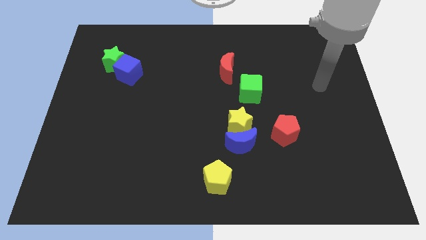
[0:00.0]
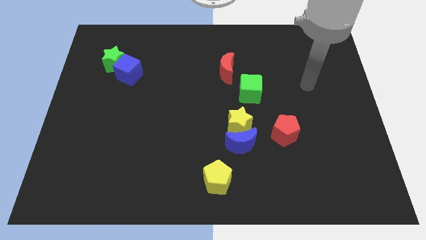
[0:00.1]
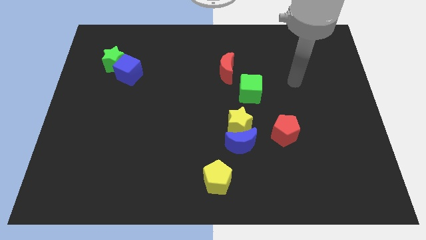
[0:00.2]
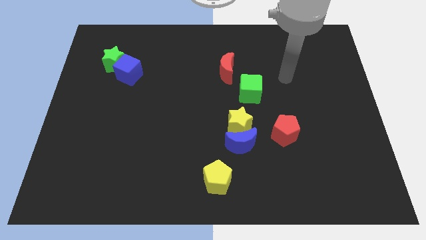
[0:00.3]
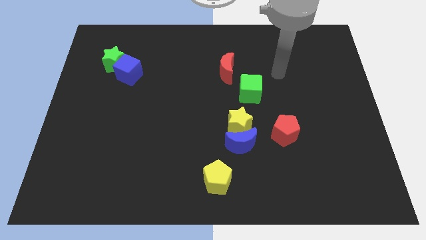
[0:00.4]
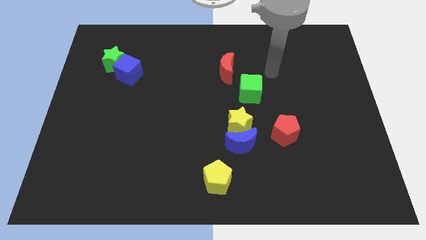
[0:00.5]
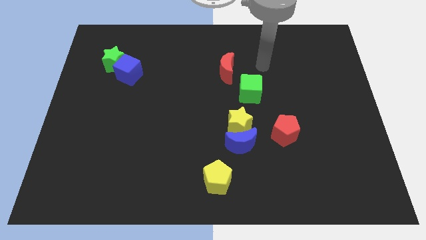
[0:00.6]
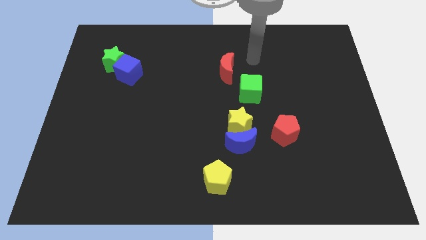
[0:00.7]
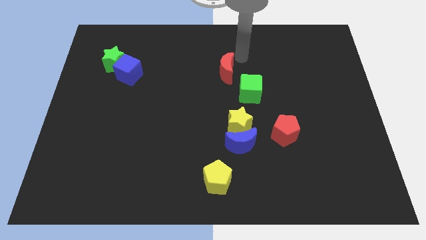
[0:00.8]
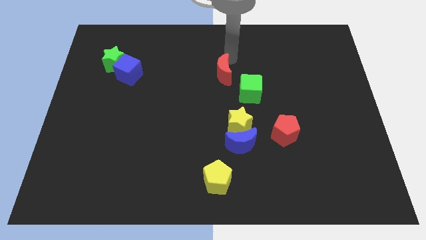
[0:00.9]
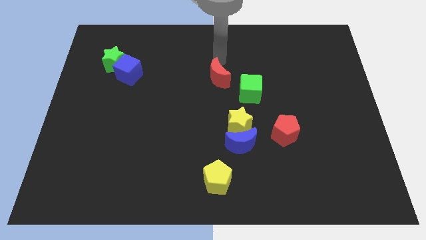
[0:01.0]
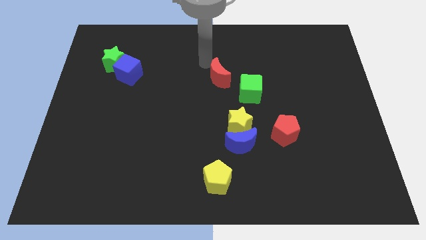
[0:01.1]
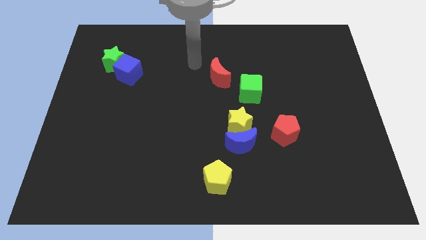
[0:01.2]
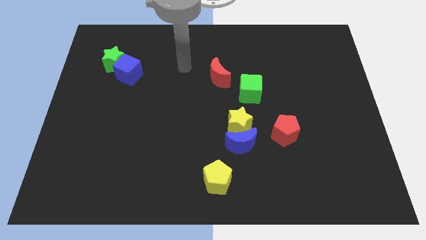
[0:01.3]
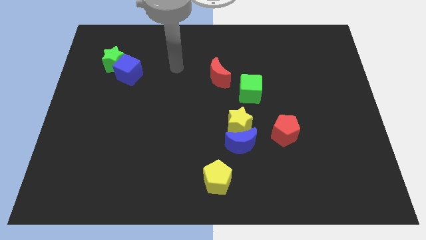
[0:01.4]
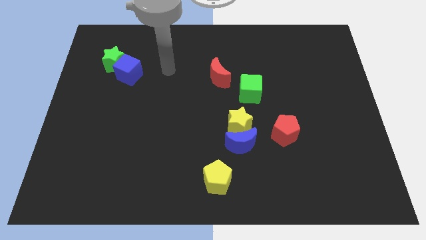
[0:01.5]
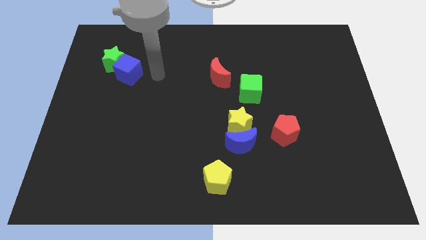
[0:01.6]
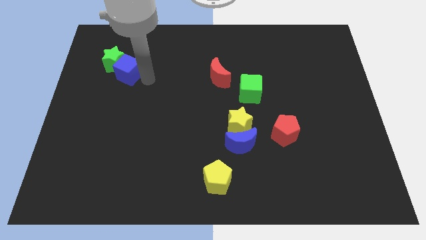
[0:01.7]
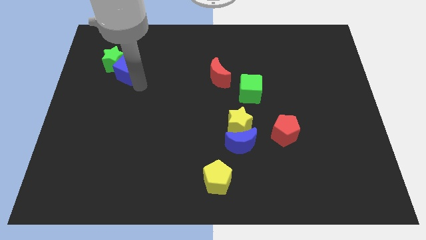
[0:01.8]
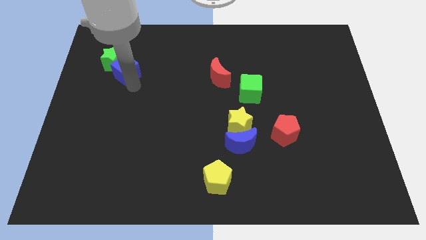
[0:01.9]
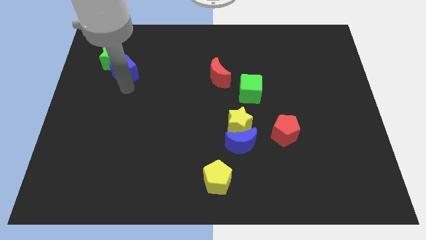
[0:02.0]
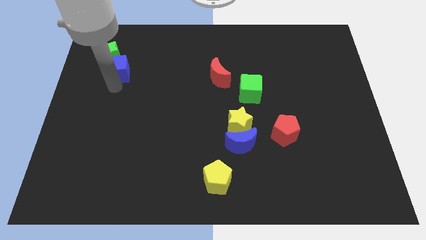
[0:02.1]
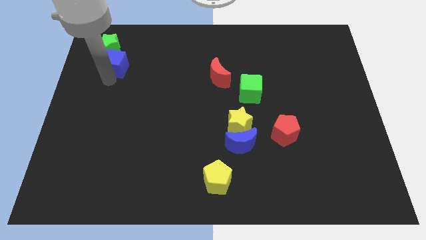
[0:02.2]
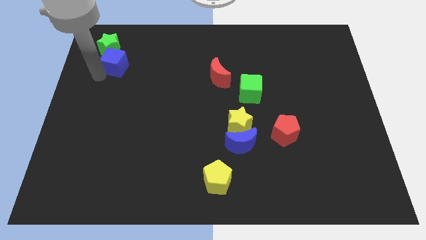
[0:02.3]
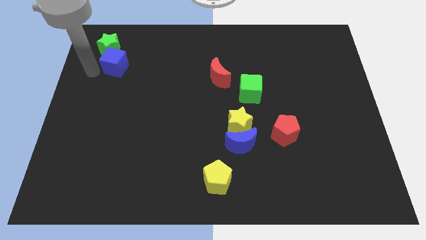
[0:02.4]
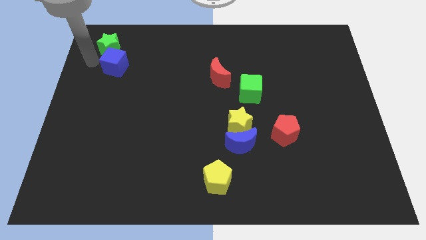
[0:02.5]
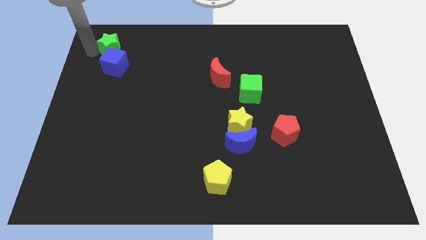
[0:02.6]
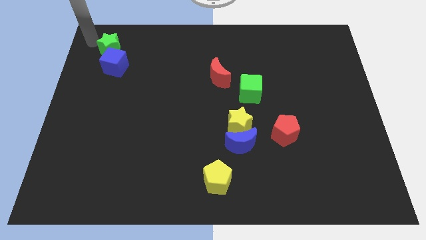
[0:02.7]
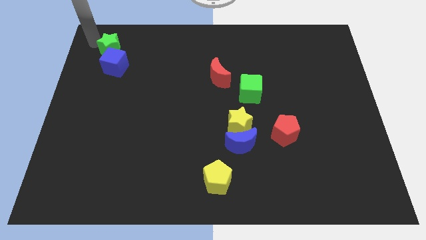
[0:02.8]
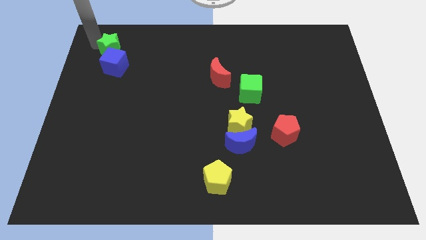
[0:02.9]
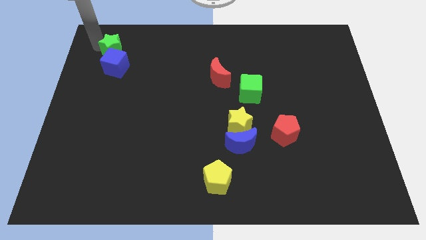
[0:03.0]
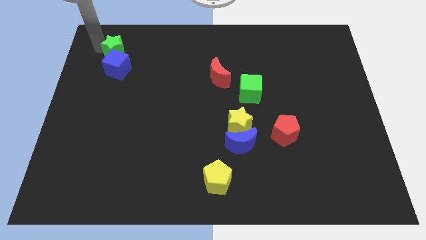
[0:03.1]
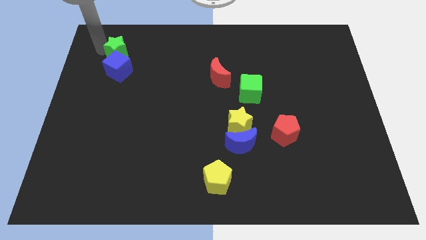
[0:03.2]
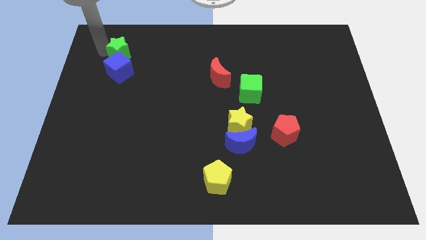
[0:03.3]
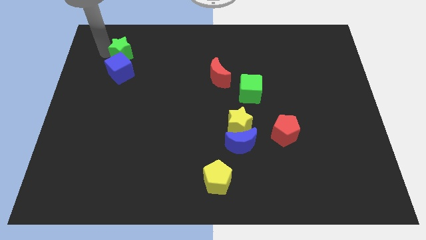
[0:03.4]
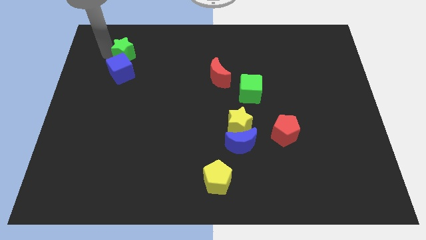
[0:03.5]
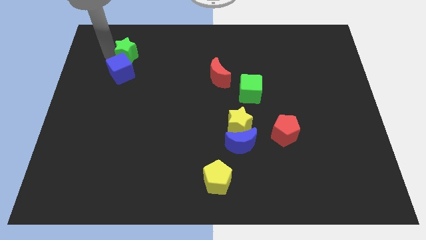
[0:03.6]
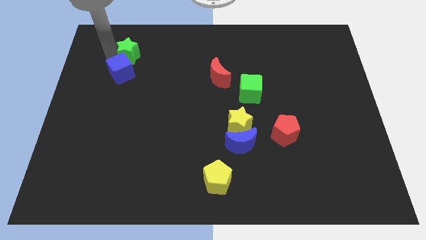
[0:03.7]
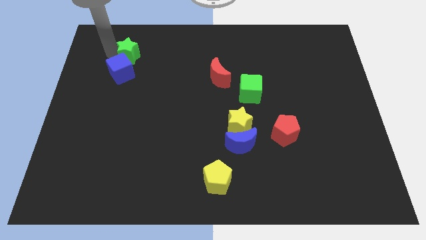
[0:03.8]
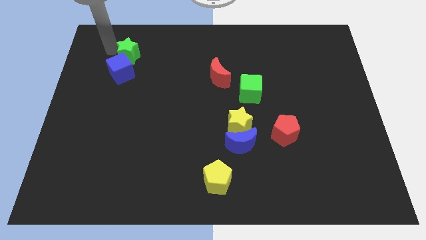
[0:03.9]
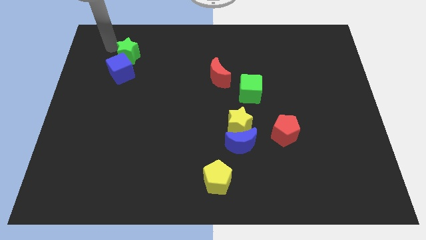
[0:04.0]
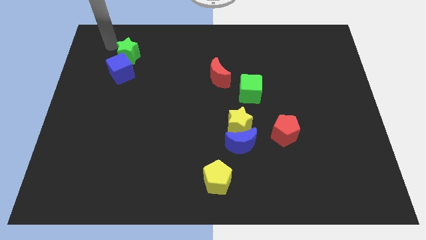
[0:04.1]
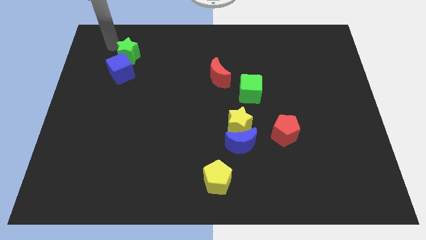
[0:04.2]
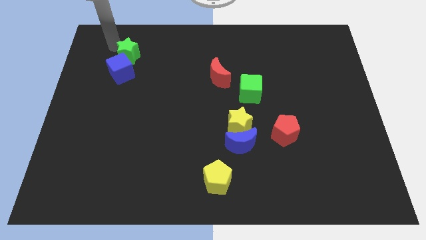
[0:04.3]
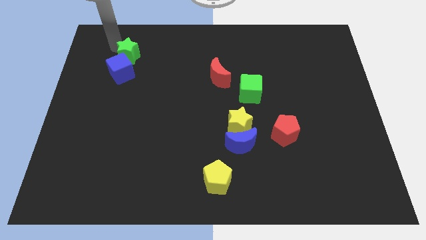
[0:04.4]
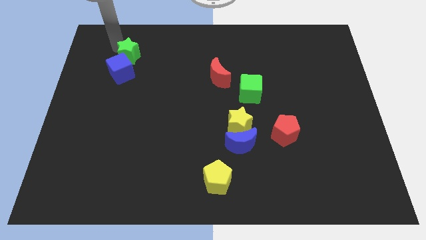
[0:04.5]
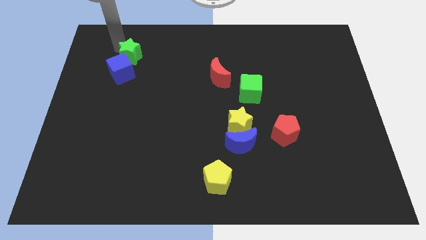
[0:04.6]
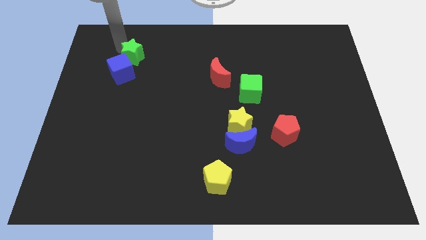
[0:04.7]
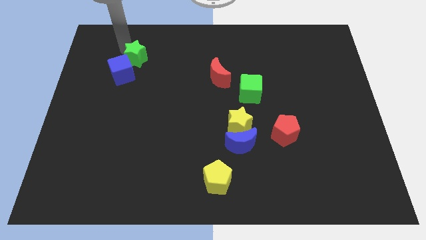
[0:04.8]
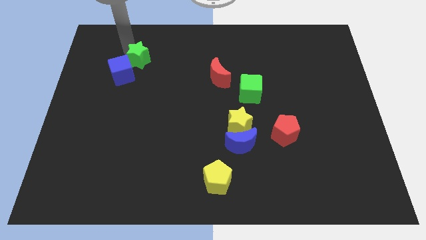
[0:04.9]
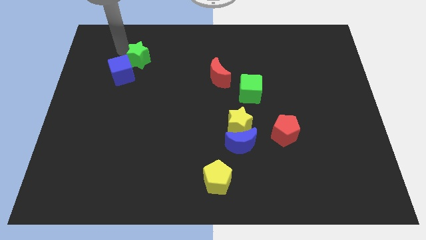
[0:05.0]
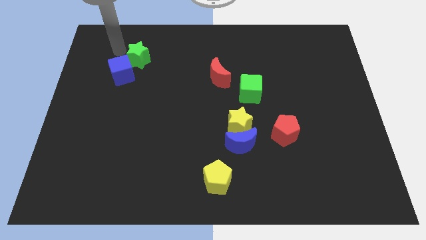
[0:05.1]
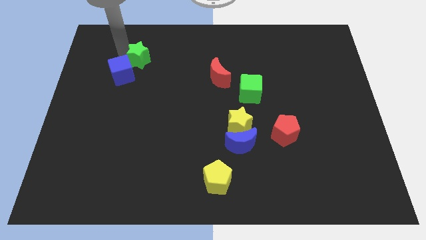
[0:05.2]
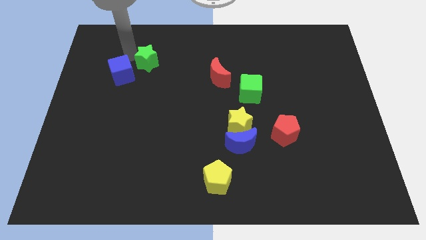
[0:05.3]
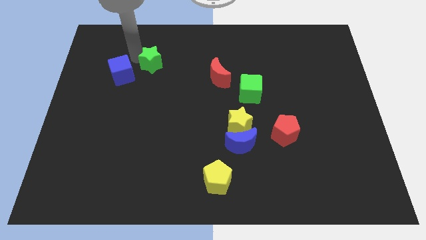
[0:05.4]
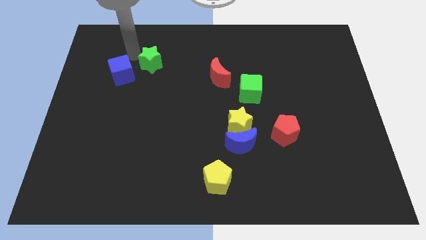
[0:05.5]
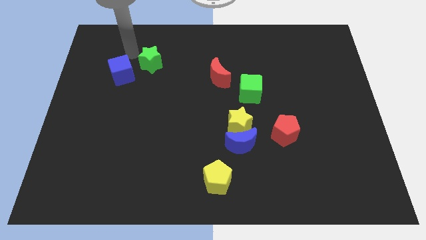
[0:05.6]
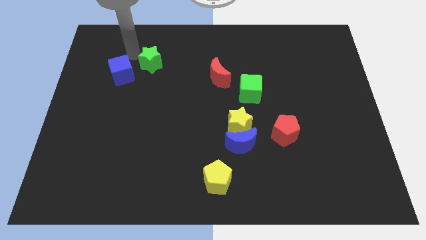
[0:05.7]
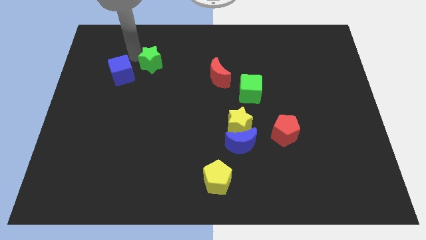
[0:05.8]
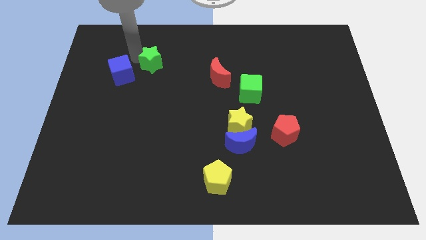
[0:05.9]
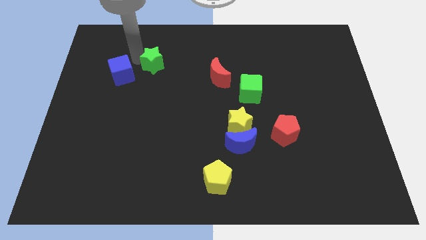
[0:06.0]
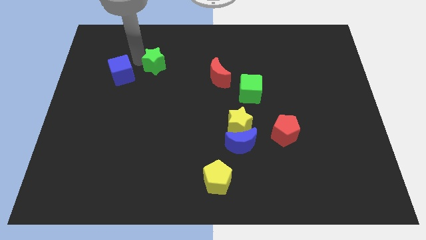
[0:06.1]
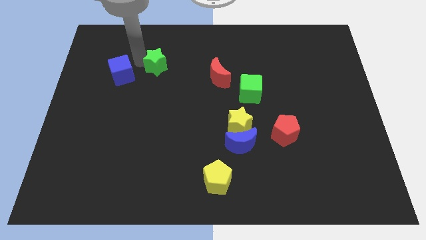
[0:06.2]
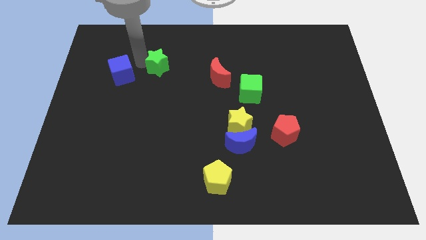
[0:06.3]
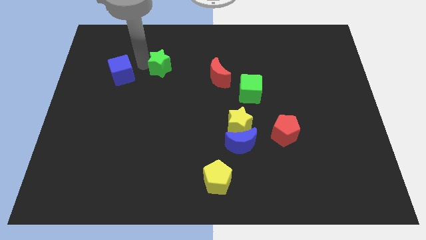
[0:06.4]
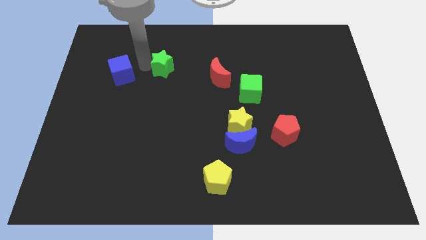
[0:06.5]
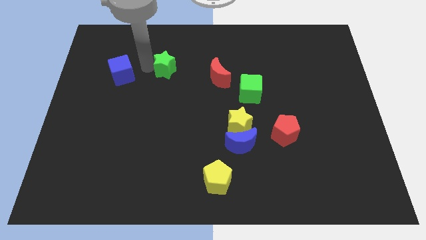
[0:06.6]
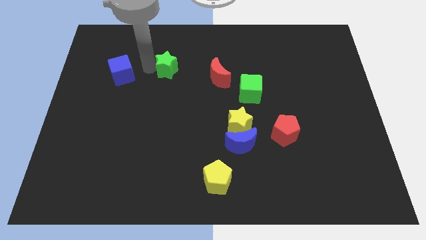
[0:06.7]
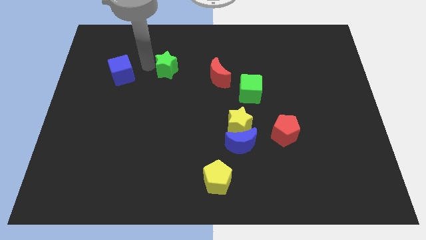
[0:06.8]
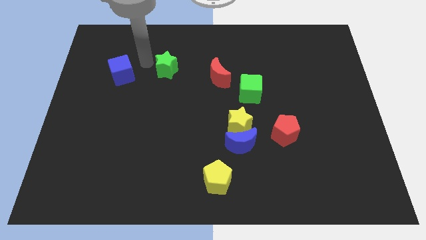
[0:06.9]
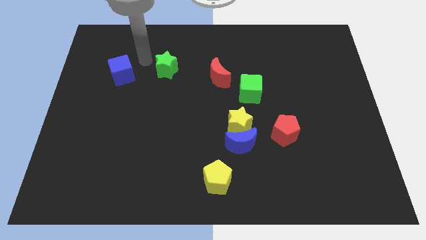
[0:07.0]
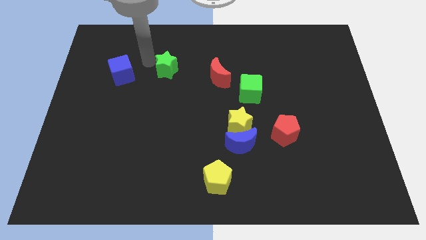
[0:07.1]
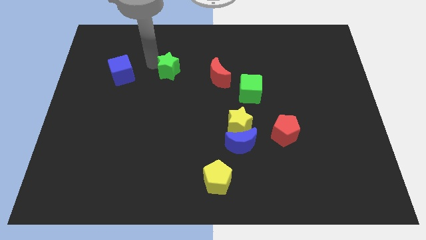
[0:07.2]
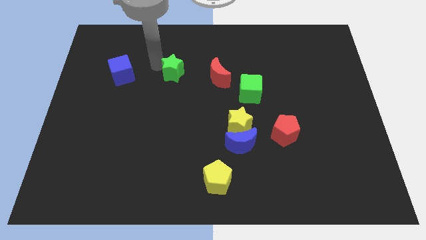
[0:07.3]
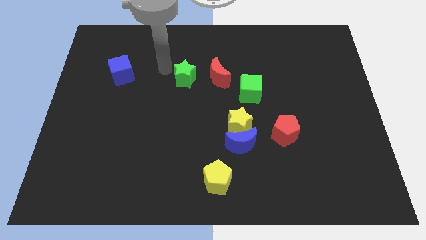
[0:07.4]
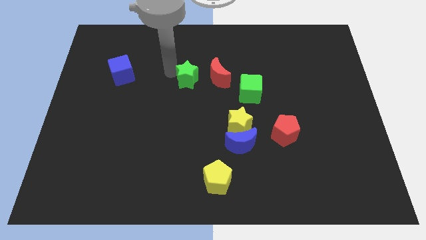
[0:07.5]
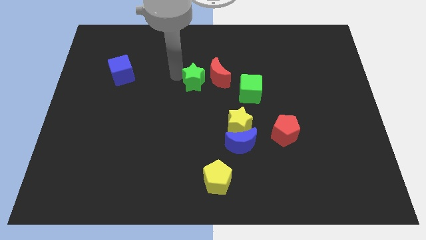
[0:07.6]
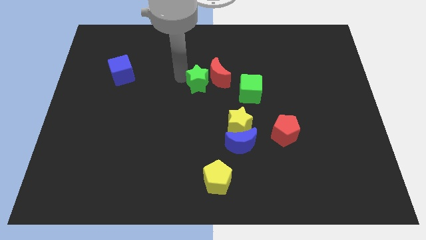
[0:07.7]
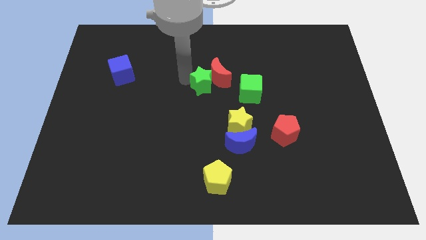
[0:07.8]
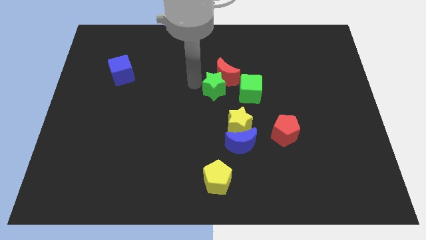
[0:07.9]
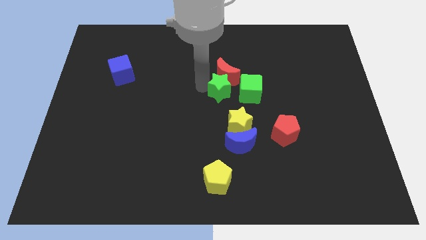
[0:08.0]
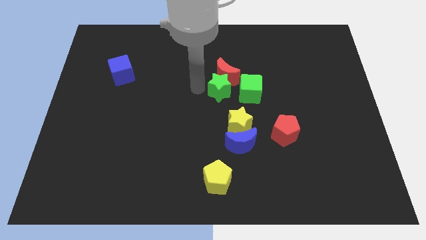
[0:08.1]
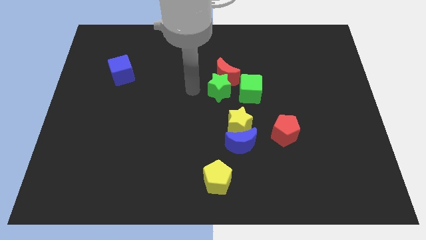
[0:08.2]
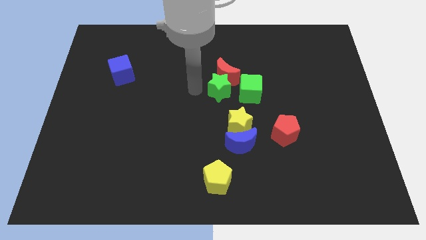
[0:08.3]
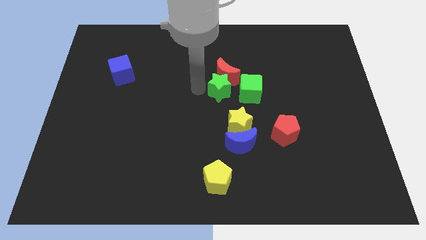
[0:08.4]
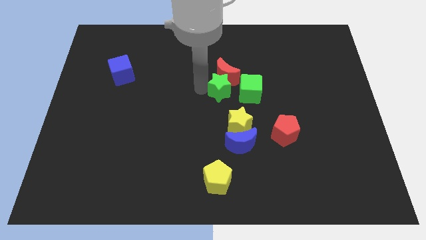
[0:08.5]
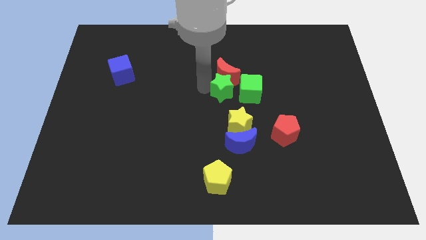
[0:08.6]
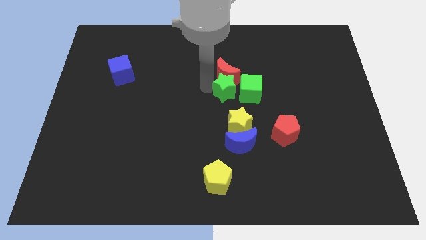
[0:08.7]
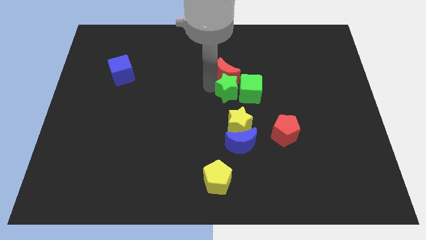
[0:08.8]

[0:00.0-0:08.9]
slide the green star towards the green cube
